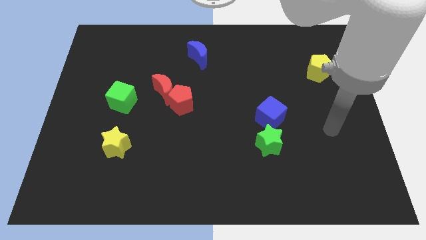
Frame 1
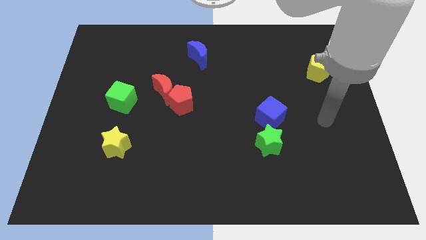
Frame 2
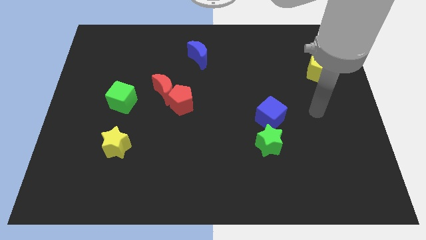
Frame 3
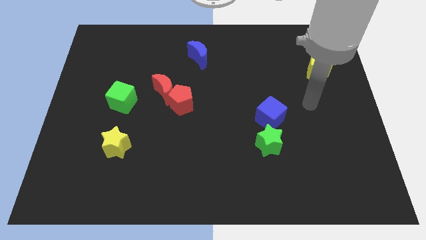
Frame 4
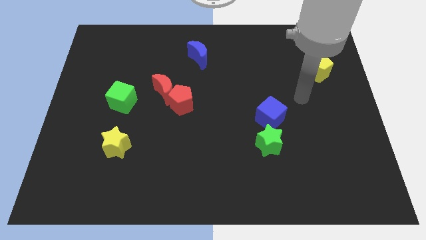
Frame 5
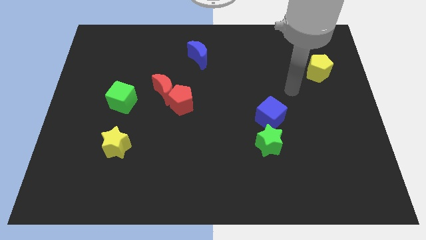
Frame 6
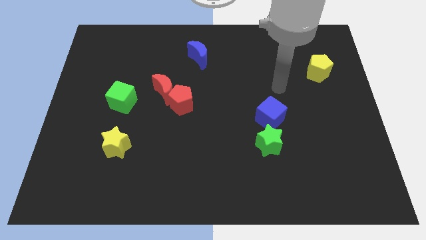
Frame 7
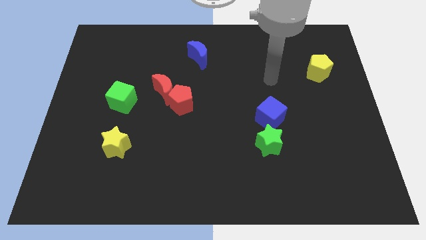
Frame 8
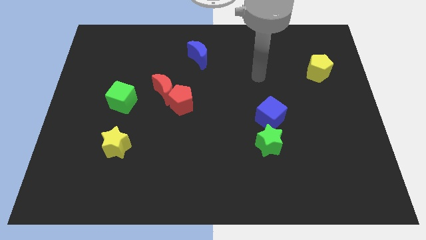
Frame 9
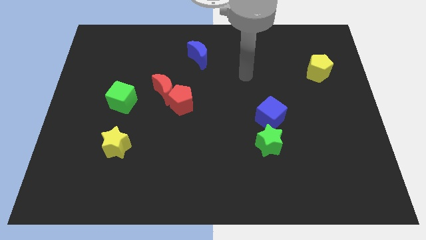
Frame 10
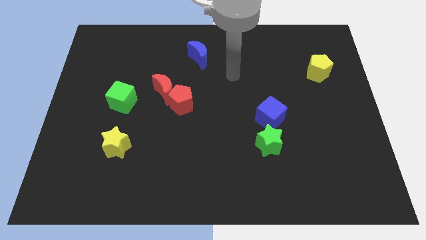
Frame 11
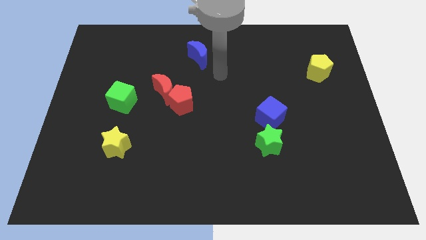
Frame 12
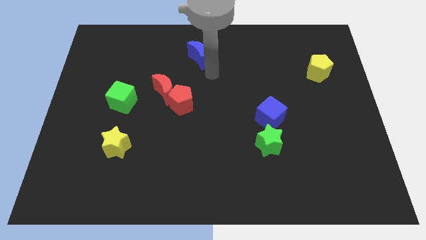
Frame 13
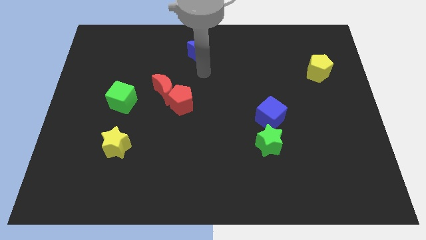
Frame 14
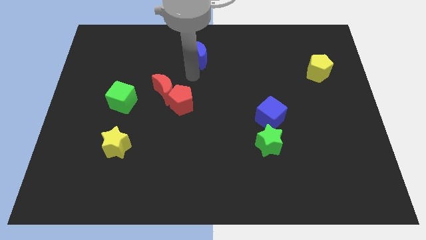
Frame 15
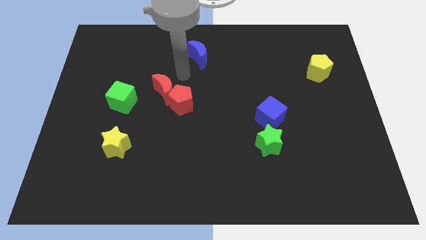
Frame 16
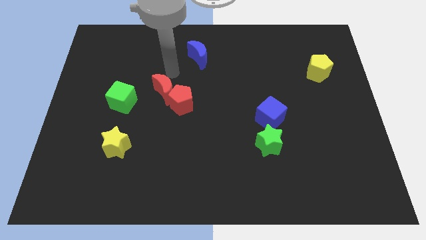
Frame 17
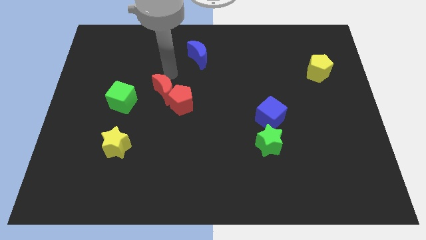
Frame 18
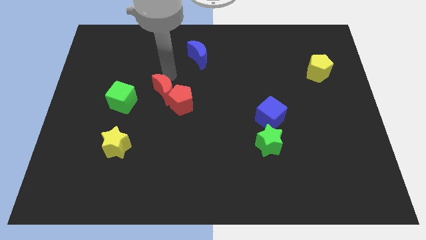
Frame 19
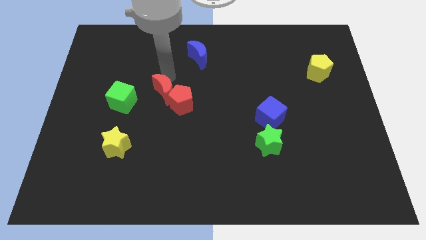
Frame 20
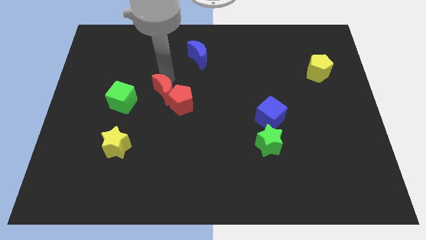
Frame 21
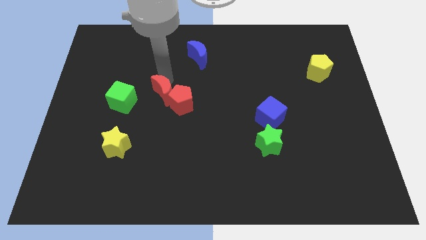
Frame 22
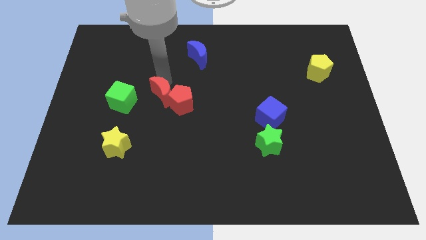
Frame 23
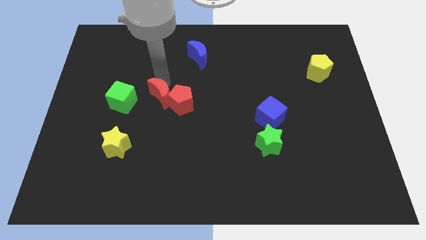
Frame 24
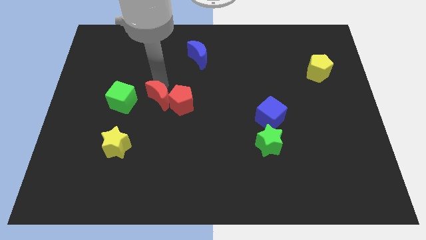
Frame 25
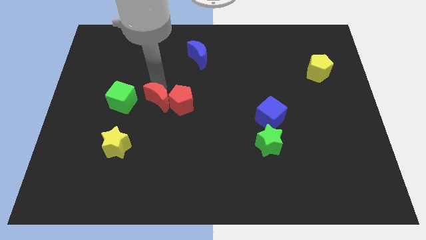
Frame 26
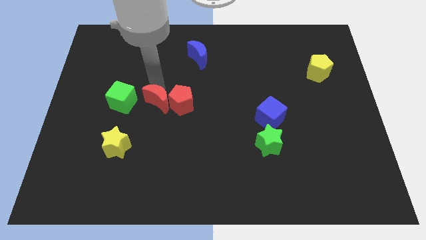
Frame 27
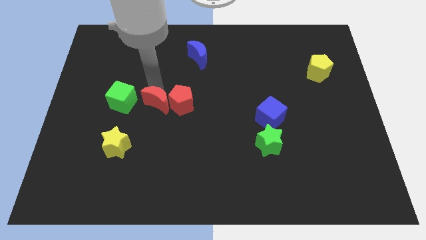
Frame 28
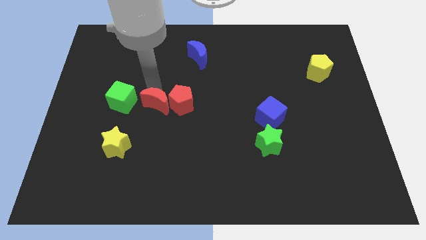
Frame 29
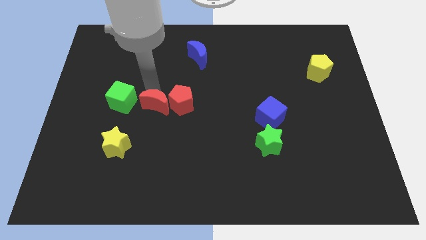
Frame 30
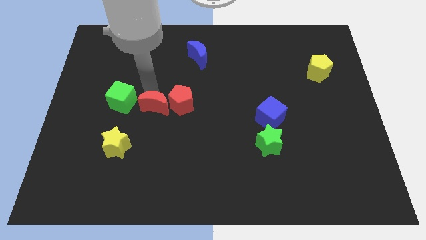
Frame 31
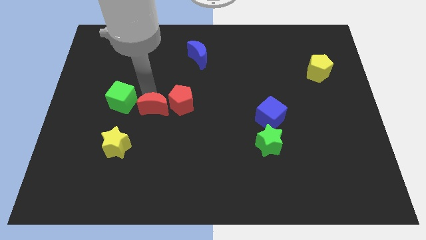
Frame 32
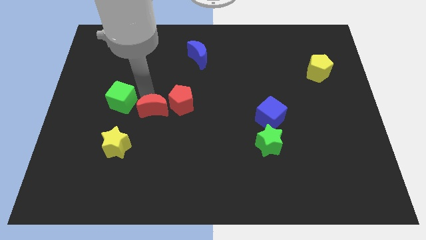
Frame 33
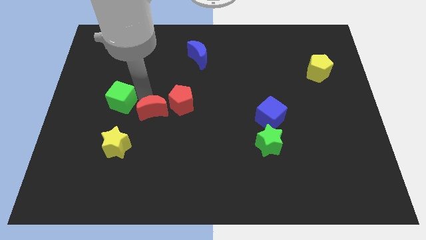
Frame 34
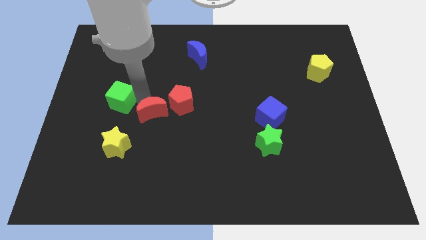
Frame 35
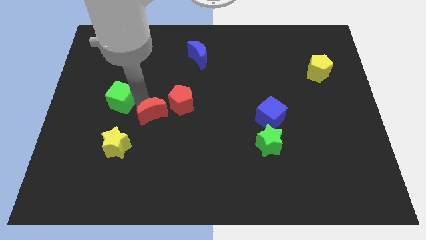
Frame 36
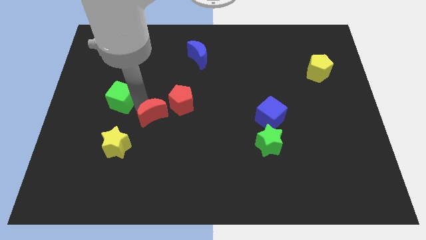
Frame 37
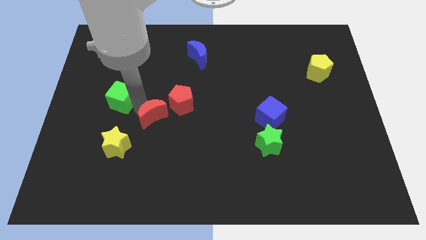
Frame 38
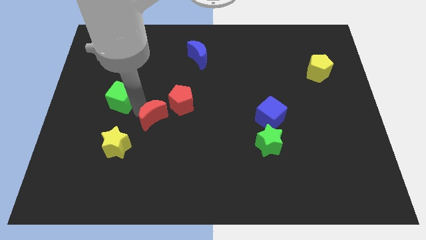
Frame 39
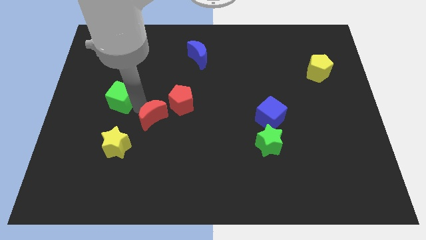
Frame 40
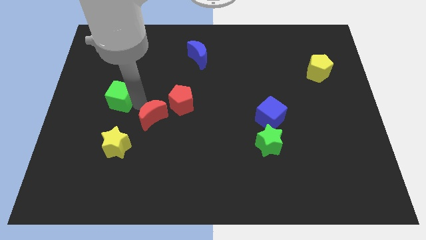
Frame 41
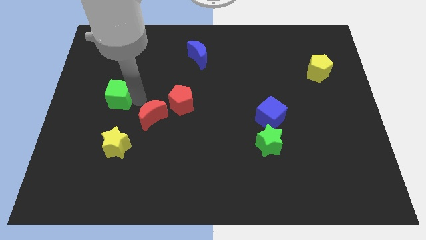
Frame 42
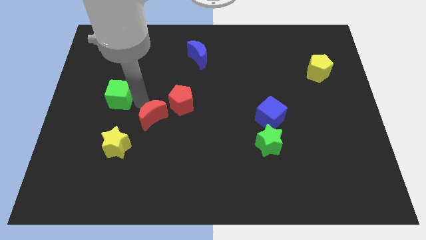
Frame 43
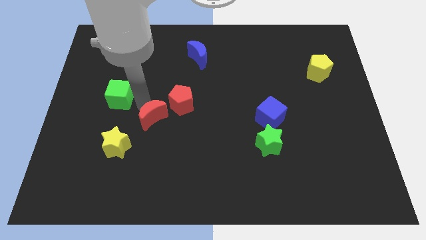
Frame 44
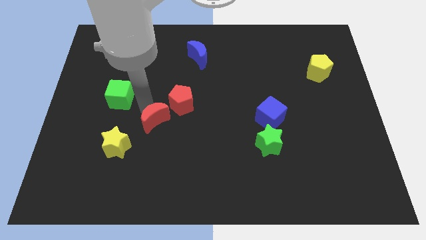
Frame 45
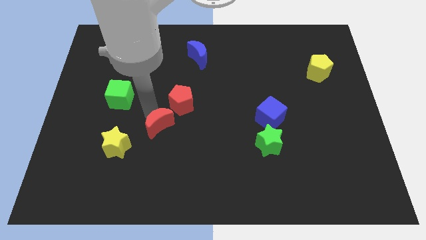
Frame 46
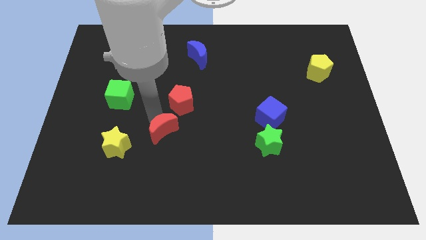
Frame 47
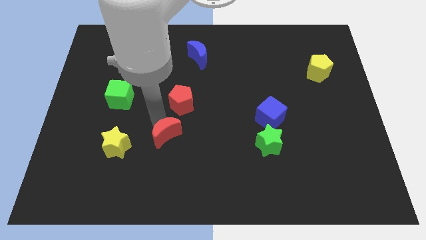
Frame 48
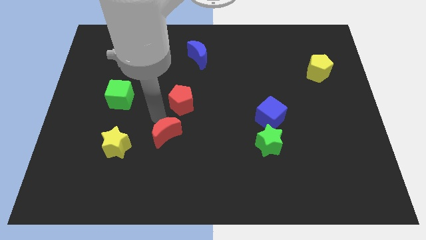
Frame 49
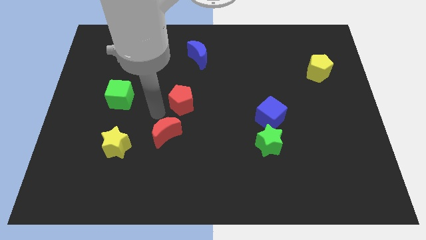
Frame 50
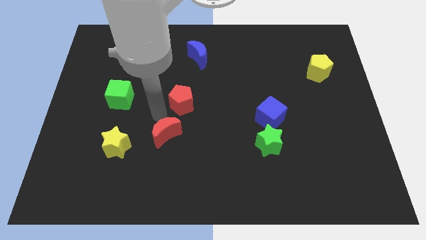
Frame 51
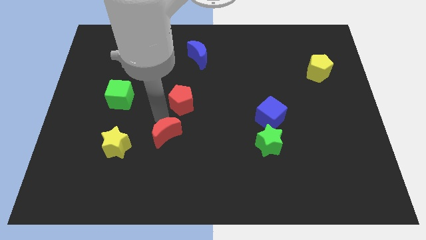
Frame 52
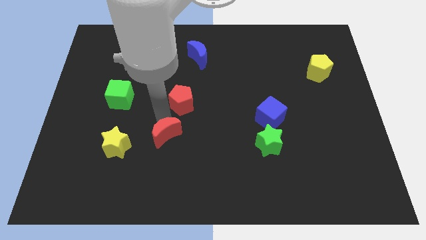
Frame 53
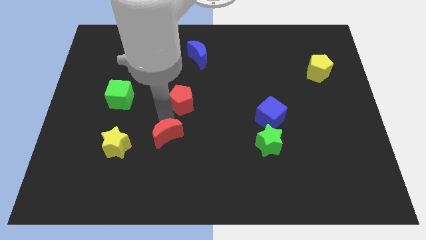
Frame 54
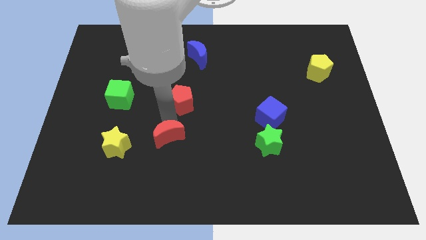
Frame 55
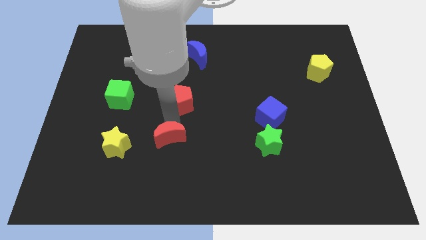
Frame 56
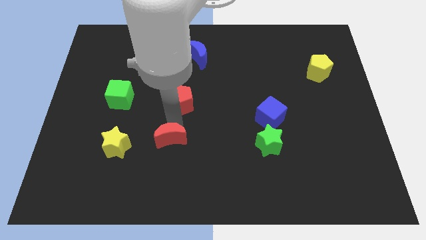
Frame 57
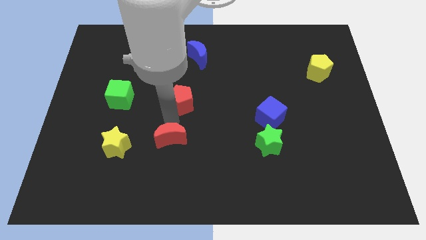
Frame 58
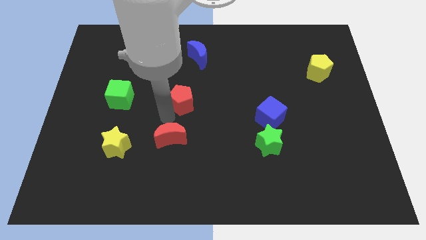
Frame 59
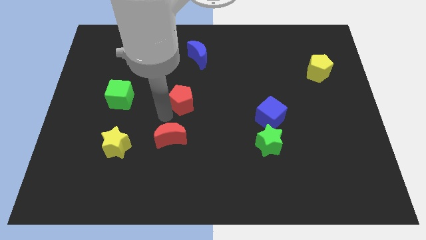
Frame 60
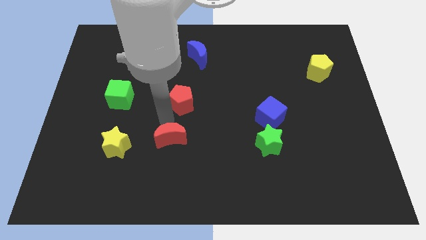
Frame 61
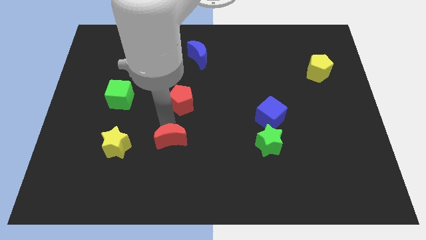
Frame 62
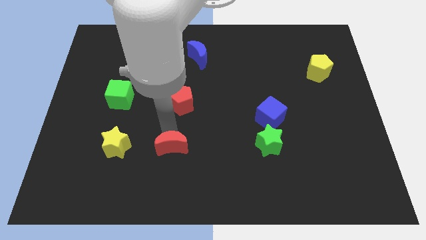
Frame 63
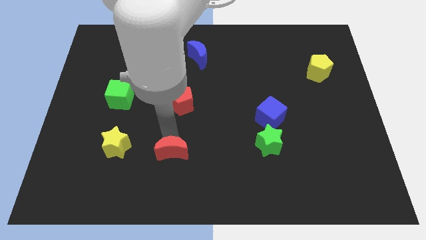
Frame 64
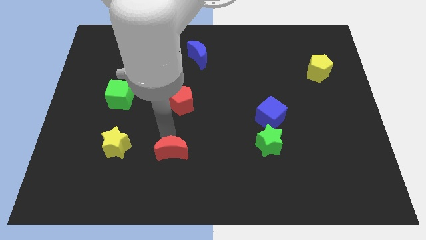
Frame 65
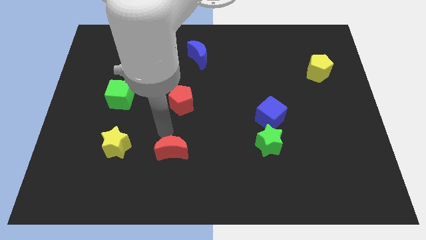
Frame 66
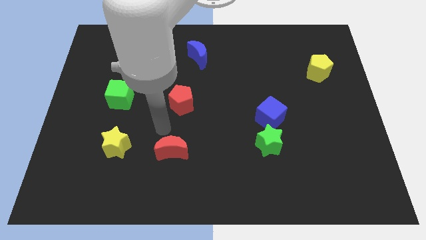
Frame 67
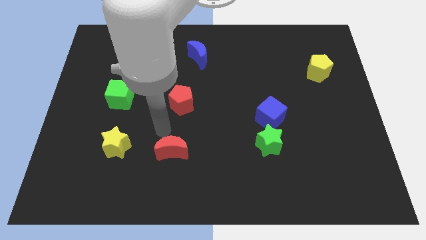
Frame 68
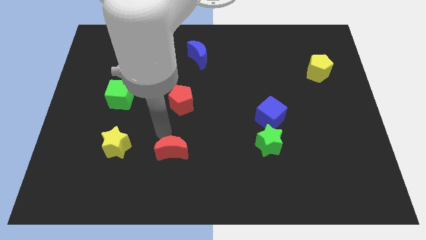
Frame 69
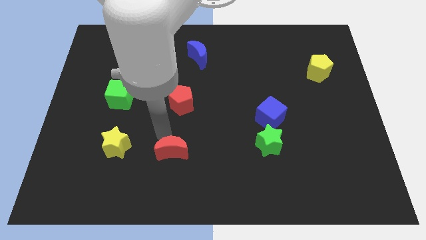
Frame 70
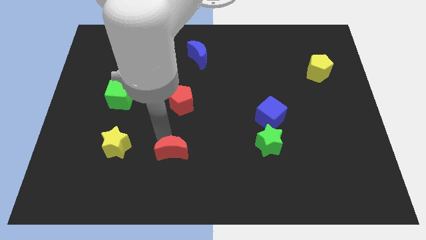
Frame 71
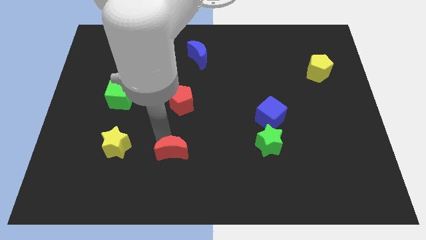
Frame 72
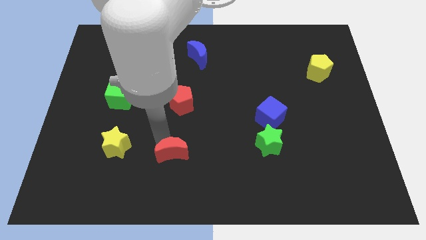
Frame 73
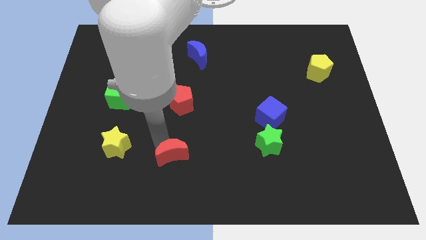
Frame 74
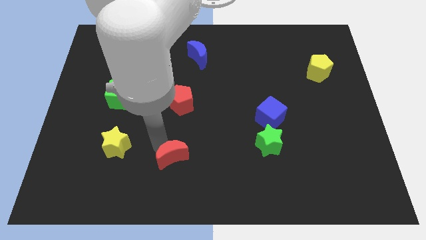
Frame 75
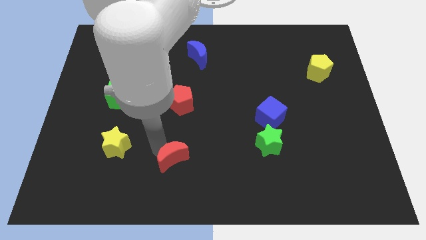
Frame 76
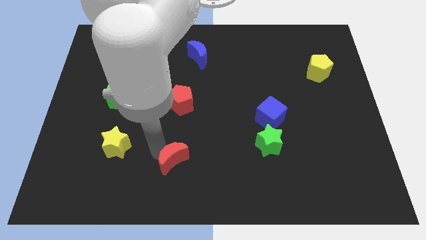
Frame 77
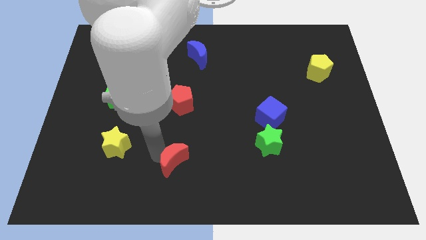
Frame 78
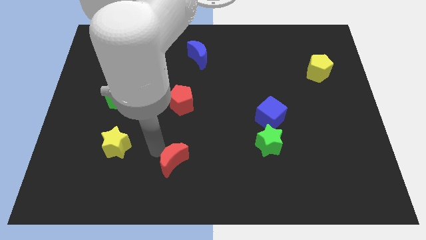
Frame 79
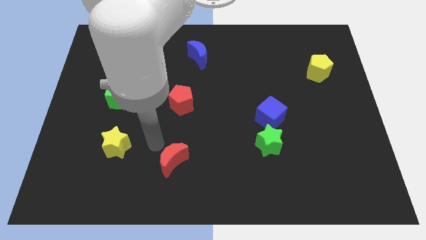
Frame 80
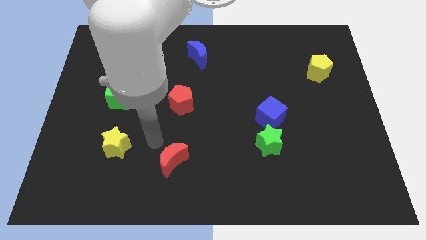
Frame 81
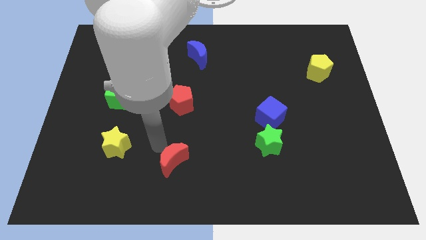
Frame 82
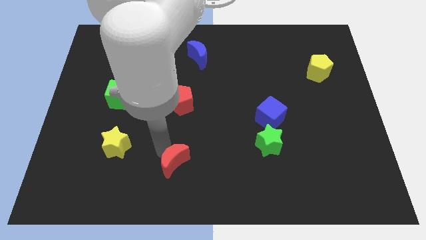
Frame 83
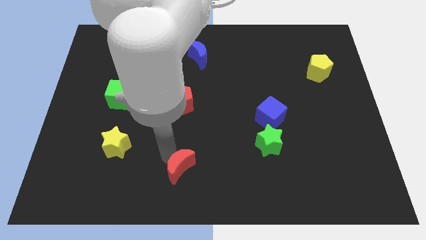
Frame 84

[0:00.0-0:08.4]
slide the red moon to the bottom side
